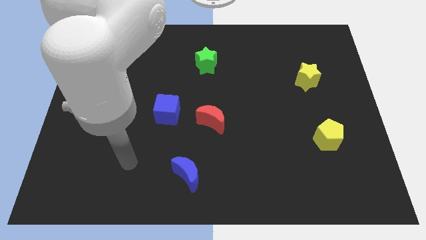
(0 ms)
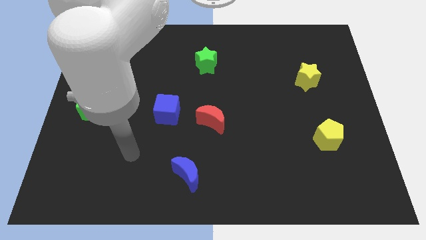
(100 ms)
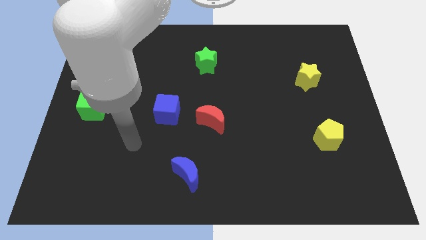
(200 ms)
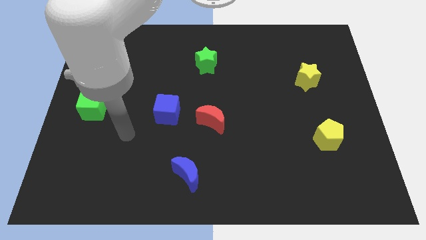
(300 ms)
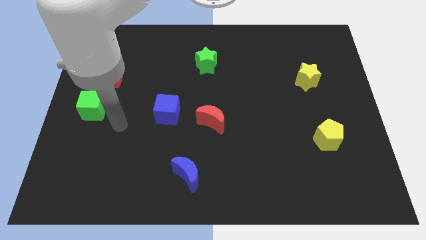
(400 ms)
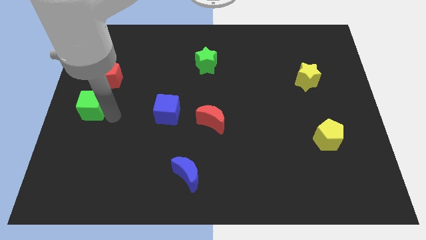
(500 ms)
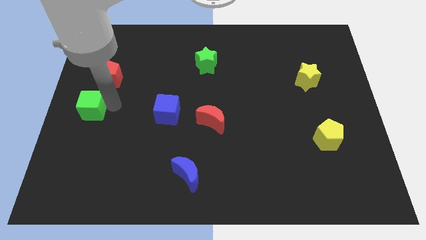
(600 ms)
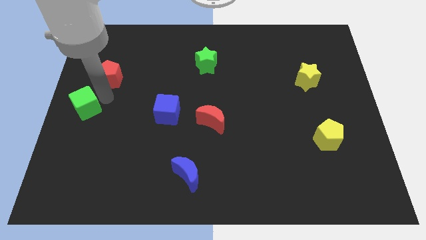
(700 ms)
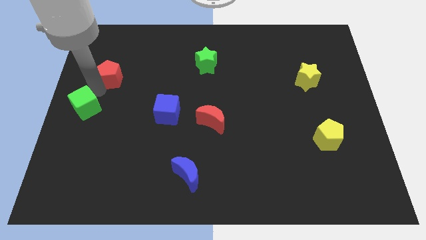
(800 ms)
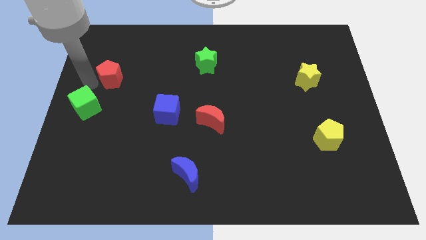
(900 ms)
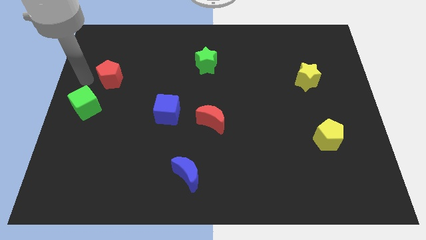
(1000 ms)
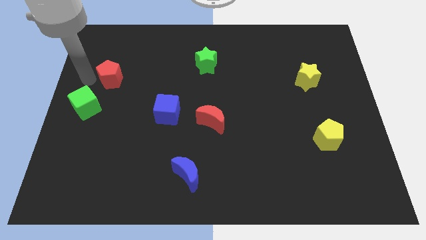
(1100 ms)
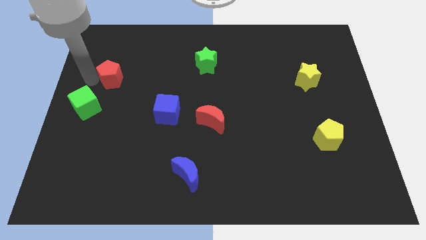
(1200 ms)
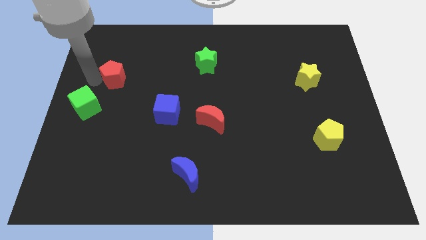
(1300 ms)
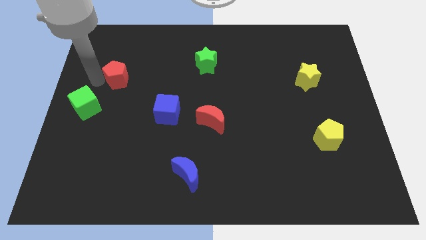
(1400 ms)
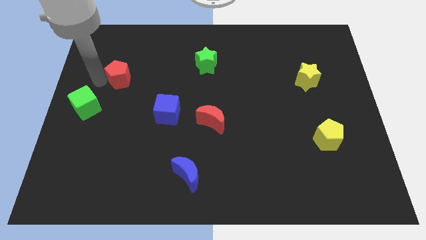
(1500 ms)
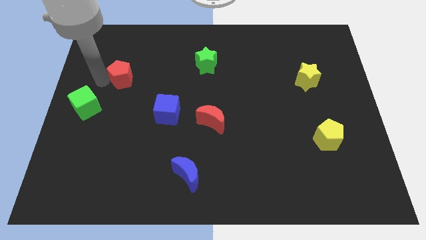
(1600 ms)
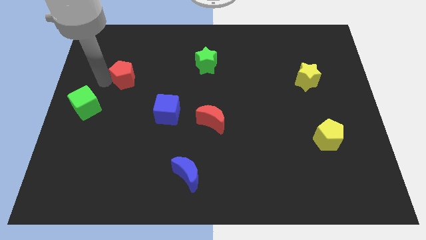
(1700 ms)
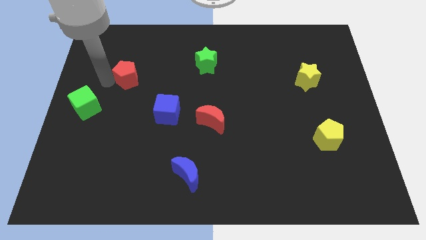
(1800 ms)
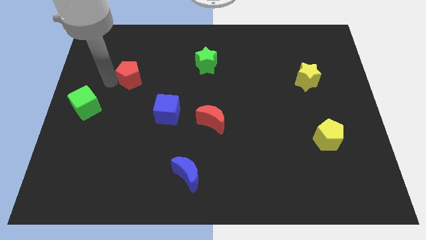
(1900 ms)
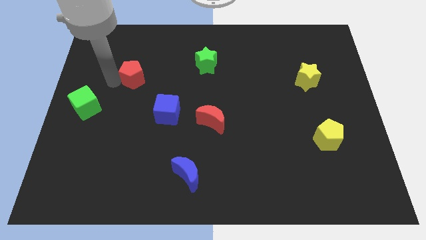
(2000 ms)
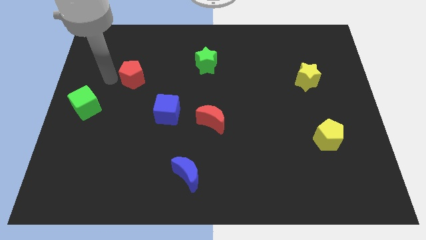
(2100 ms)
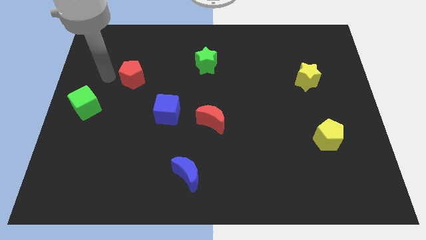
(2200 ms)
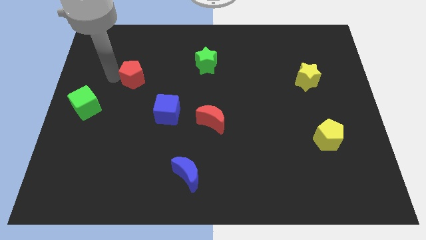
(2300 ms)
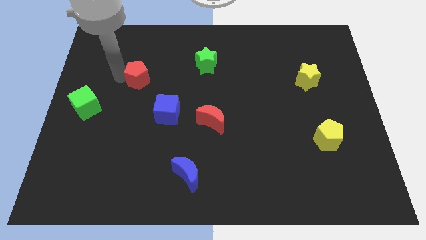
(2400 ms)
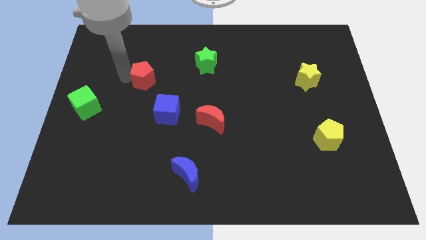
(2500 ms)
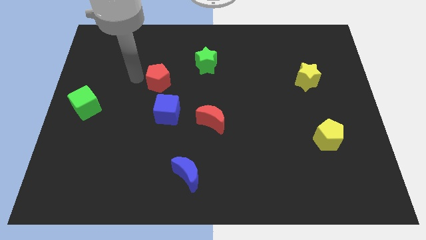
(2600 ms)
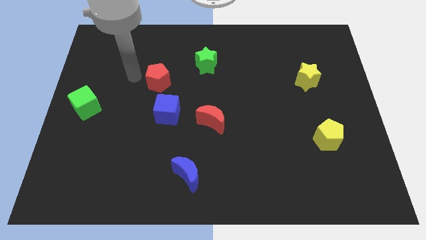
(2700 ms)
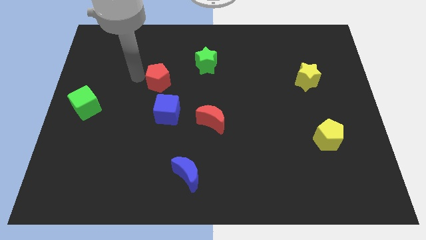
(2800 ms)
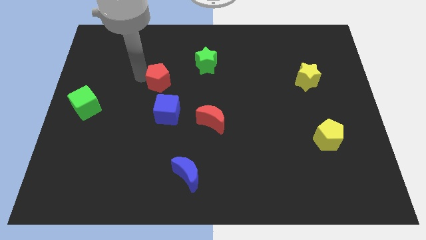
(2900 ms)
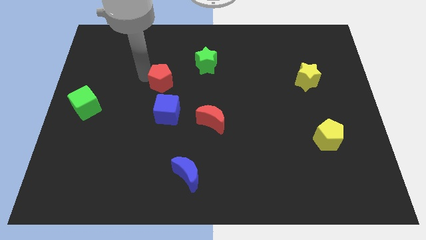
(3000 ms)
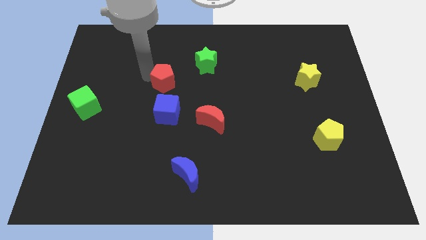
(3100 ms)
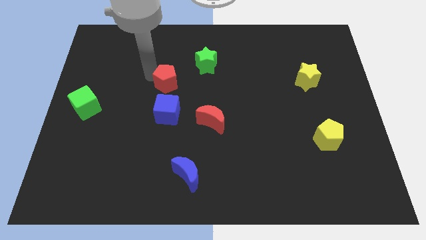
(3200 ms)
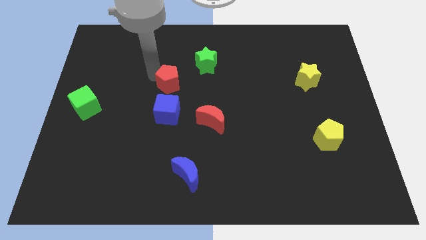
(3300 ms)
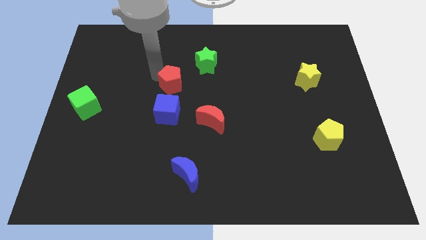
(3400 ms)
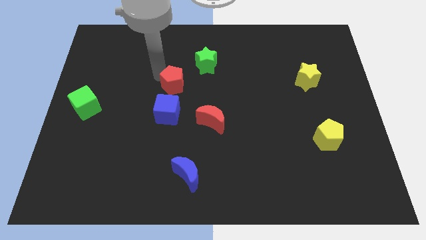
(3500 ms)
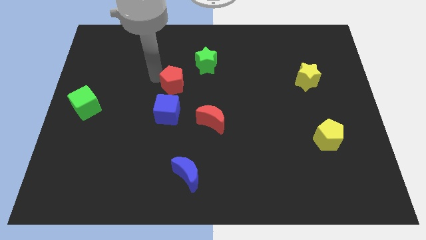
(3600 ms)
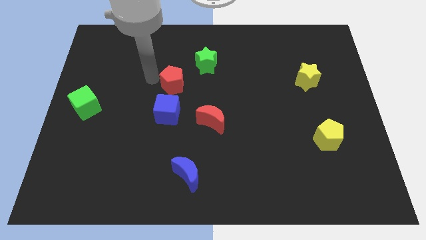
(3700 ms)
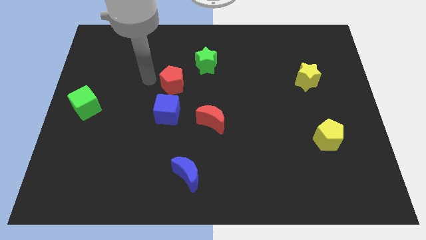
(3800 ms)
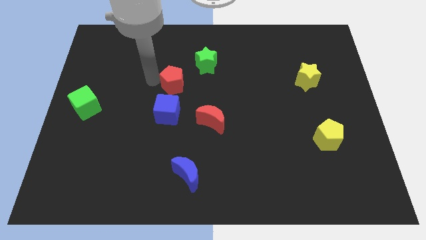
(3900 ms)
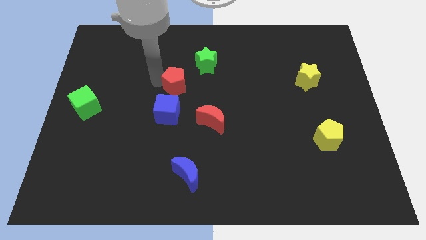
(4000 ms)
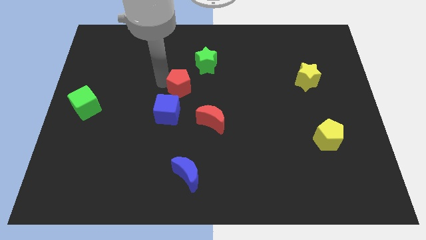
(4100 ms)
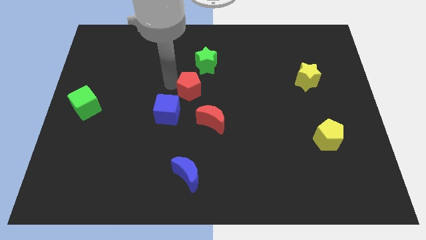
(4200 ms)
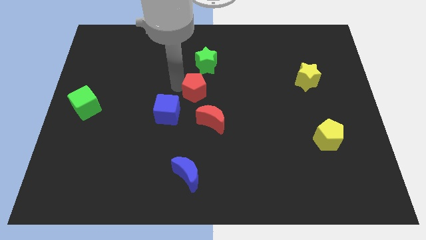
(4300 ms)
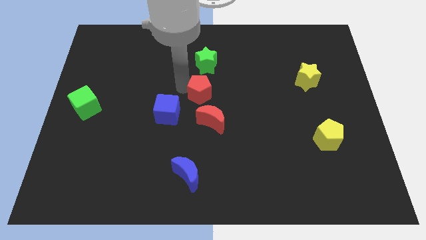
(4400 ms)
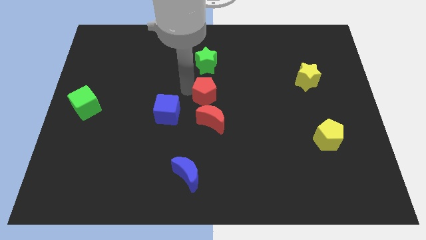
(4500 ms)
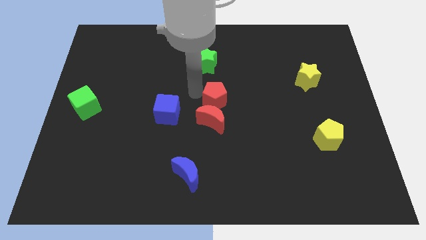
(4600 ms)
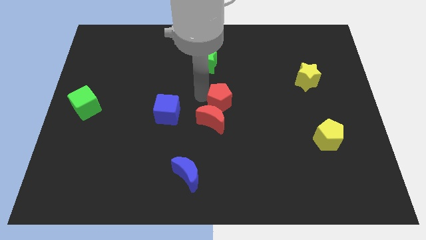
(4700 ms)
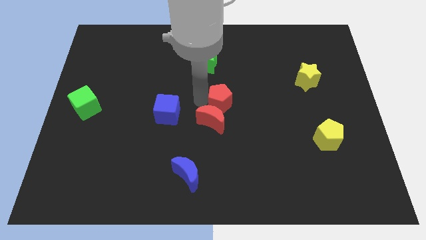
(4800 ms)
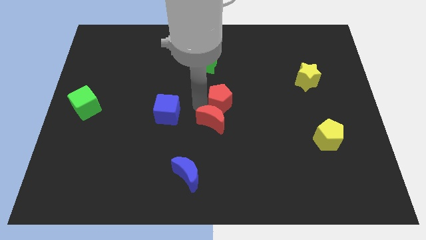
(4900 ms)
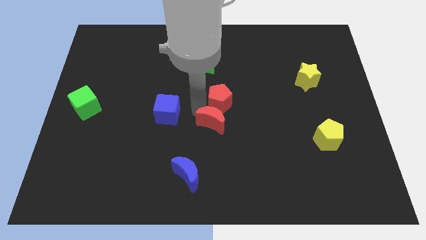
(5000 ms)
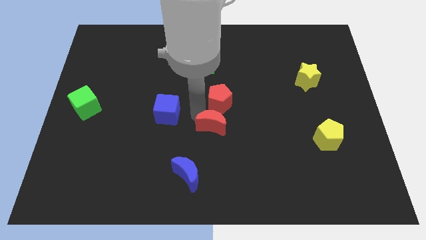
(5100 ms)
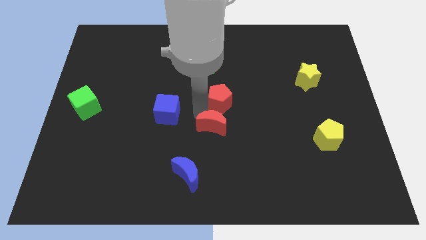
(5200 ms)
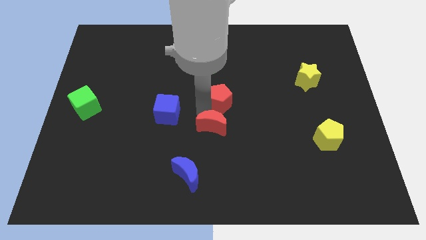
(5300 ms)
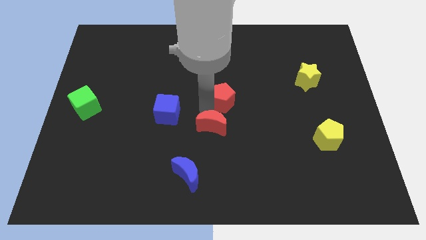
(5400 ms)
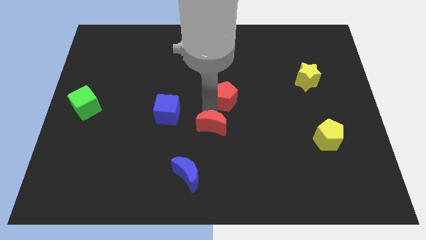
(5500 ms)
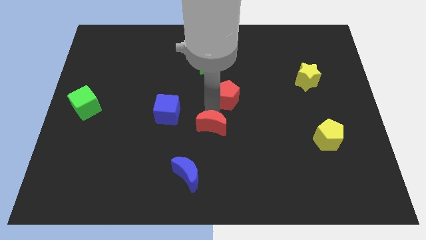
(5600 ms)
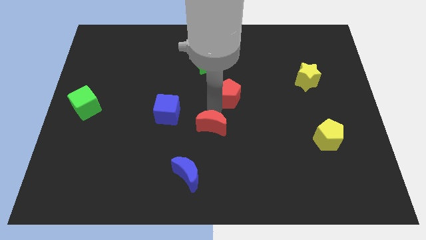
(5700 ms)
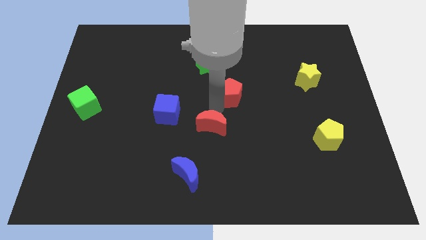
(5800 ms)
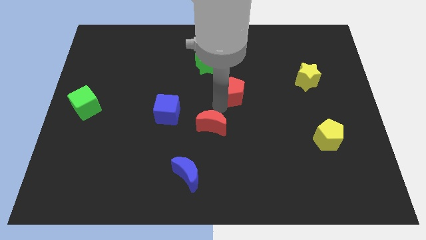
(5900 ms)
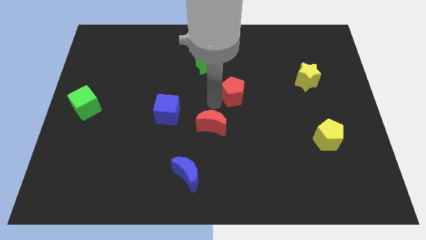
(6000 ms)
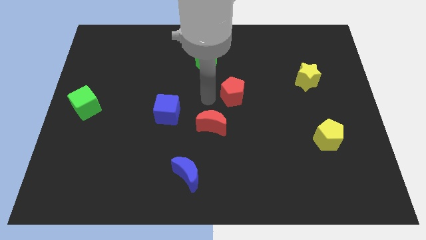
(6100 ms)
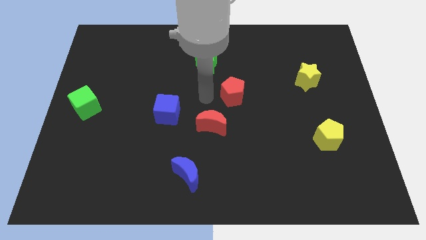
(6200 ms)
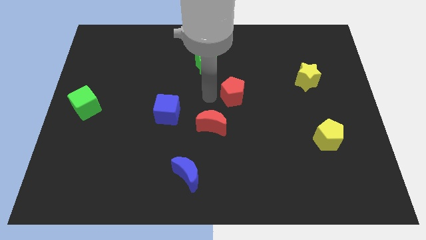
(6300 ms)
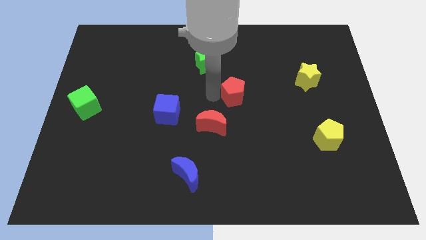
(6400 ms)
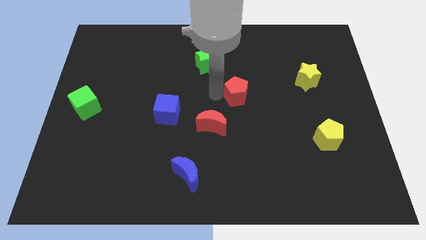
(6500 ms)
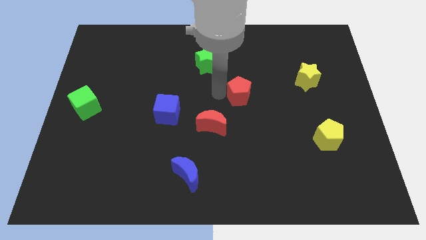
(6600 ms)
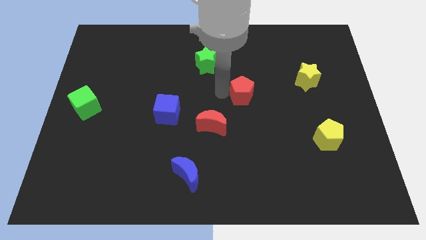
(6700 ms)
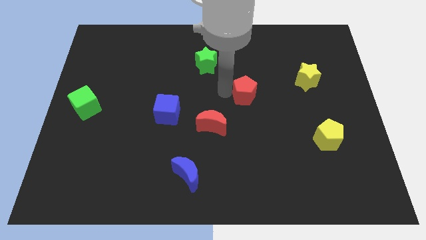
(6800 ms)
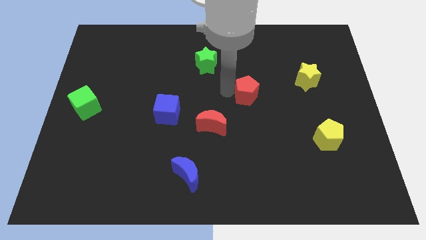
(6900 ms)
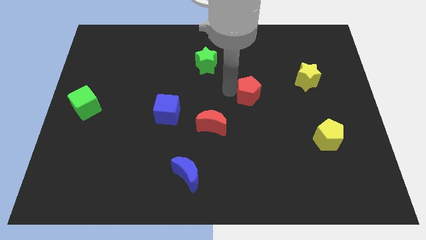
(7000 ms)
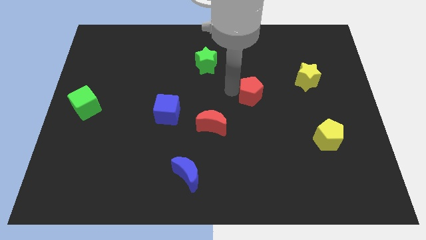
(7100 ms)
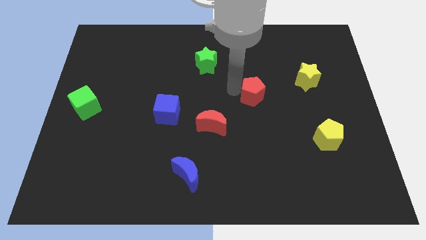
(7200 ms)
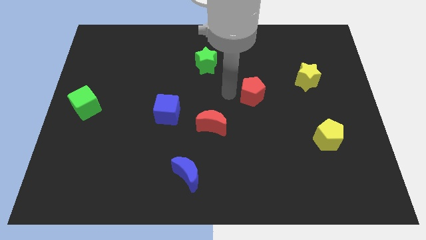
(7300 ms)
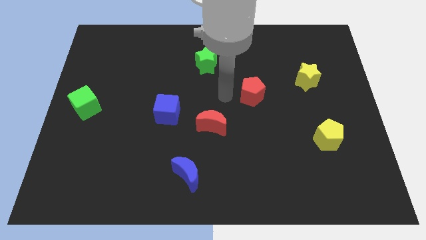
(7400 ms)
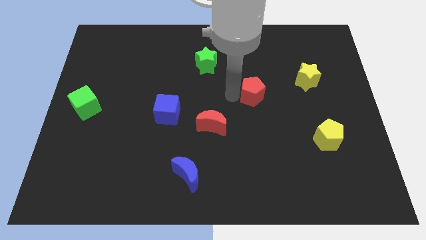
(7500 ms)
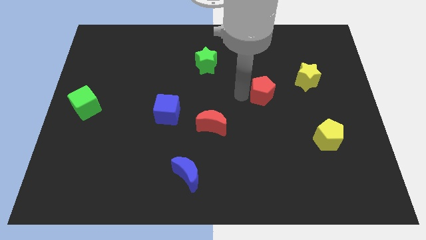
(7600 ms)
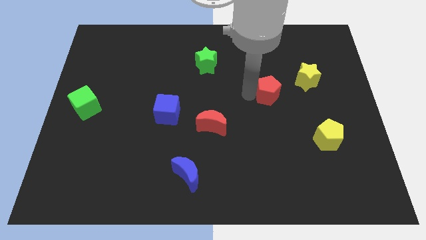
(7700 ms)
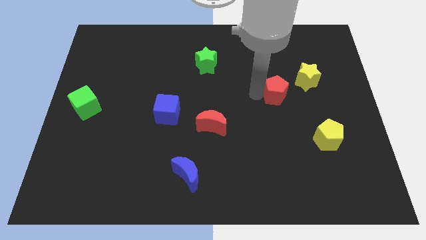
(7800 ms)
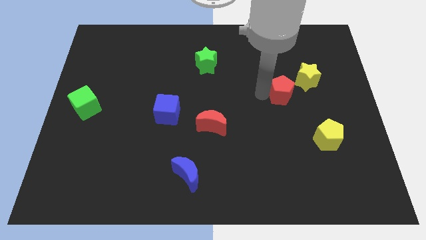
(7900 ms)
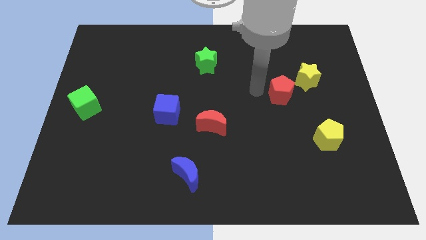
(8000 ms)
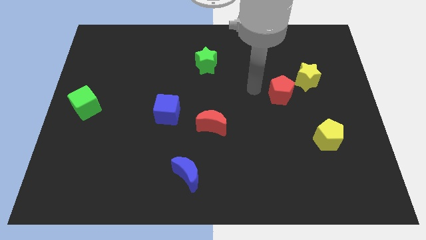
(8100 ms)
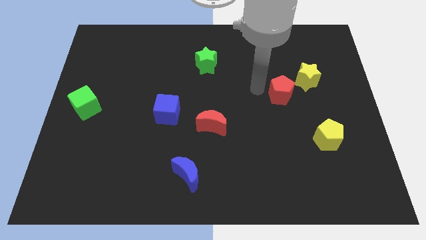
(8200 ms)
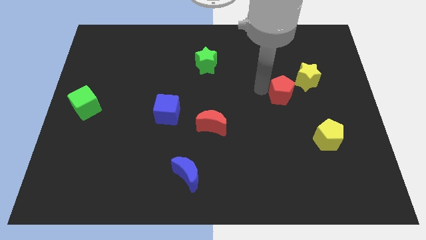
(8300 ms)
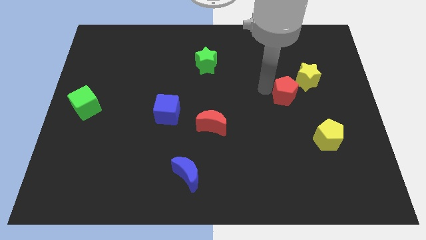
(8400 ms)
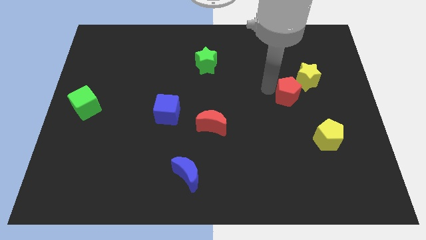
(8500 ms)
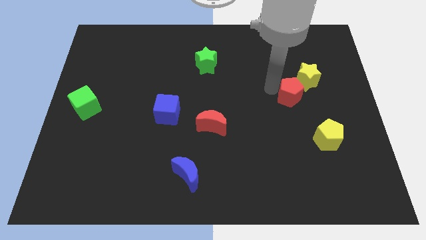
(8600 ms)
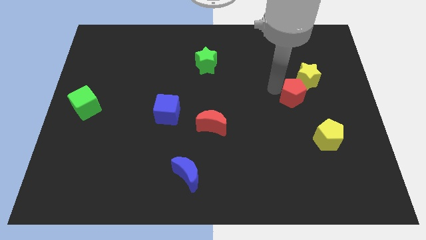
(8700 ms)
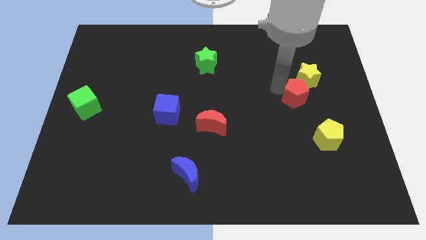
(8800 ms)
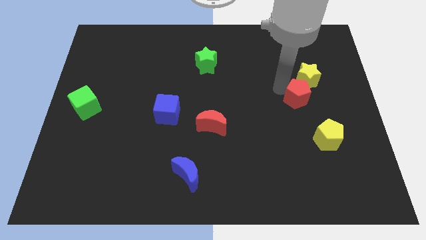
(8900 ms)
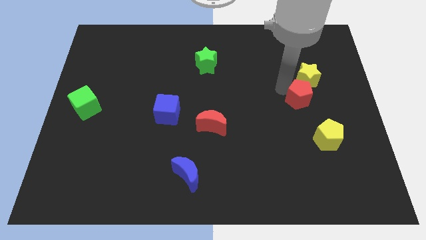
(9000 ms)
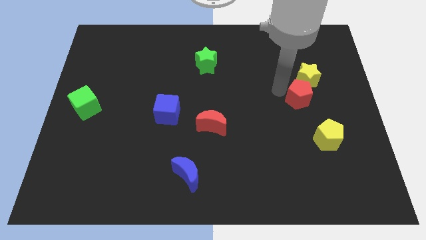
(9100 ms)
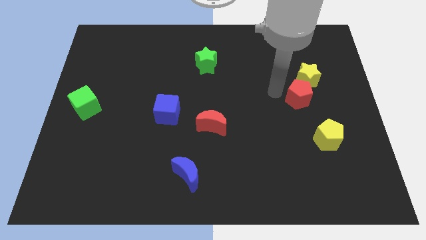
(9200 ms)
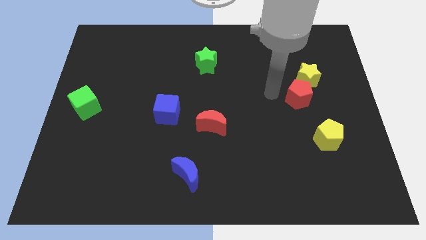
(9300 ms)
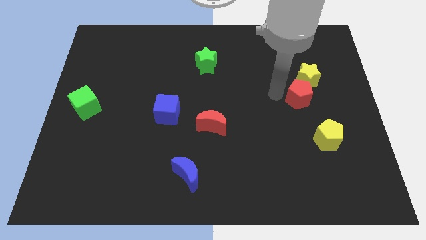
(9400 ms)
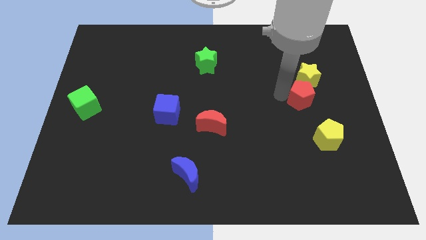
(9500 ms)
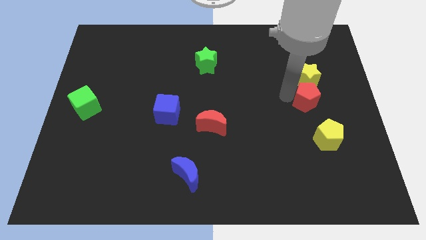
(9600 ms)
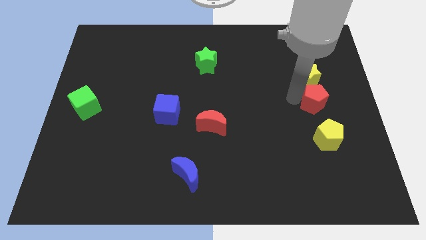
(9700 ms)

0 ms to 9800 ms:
move the red pentagon diagonally down and to the right of the yellow star
